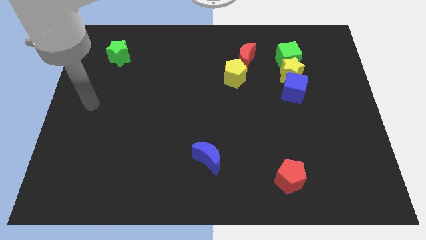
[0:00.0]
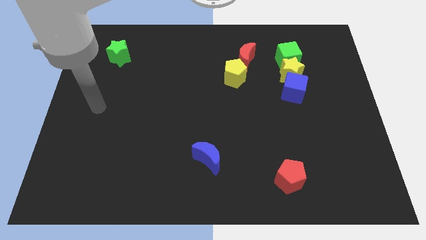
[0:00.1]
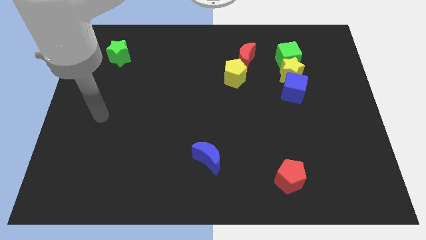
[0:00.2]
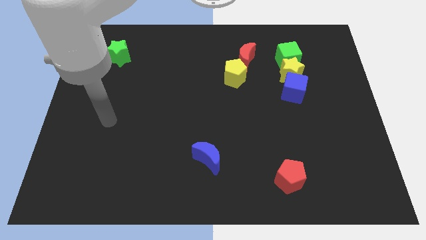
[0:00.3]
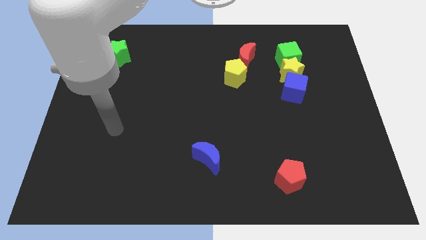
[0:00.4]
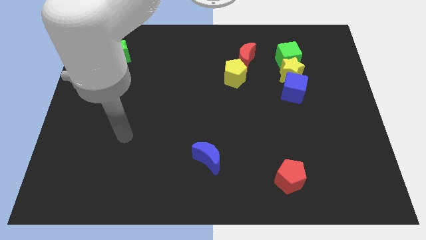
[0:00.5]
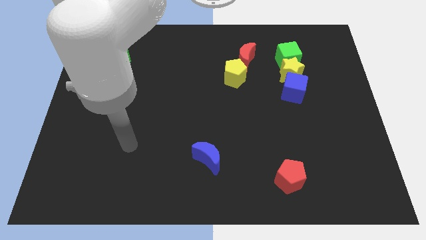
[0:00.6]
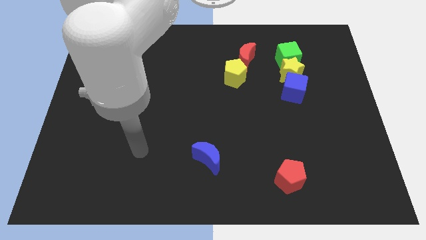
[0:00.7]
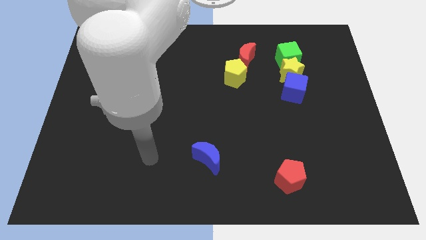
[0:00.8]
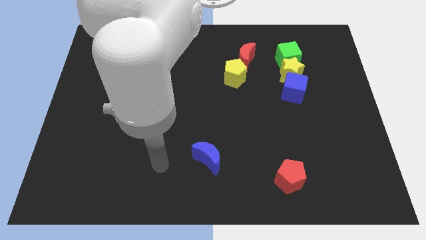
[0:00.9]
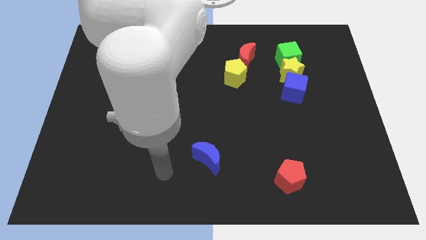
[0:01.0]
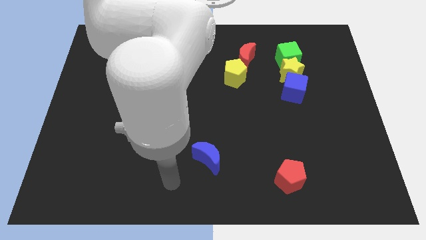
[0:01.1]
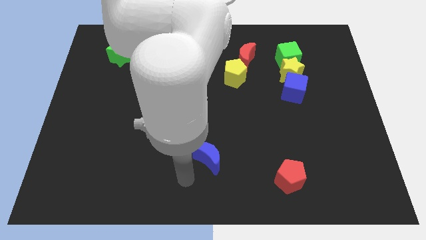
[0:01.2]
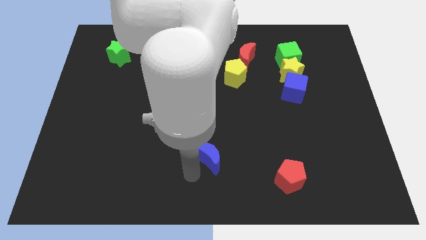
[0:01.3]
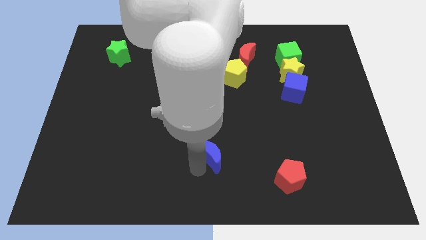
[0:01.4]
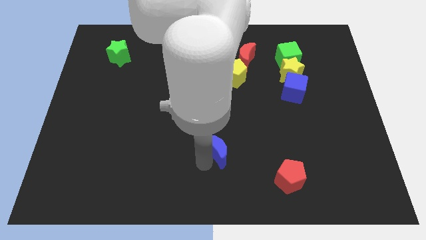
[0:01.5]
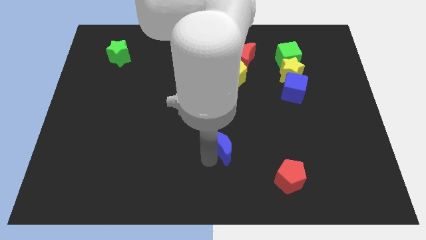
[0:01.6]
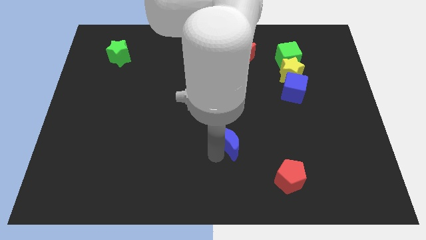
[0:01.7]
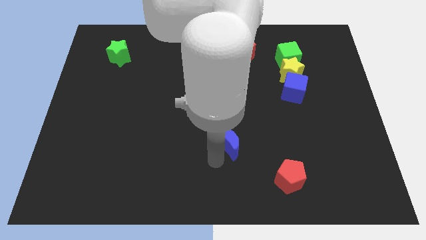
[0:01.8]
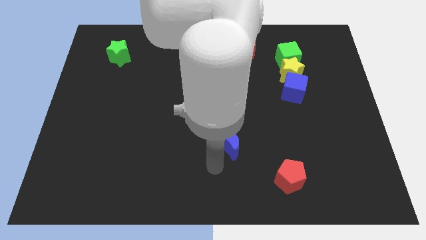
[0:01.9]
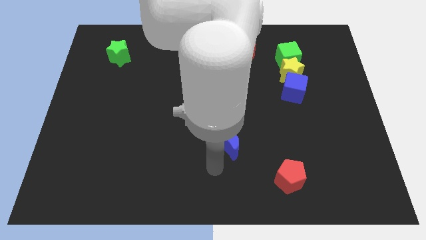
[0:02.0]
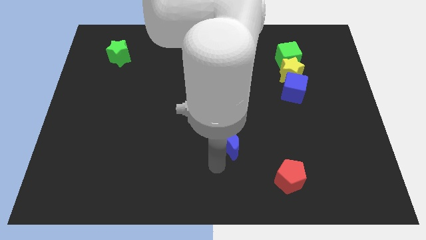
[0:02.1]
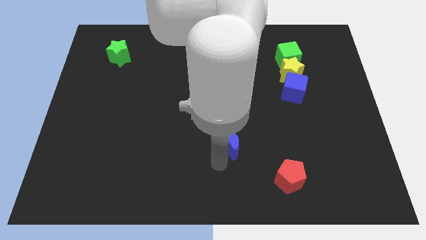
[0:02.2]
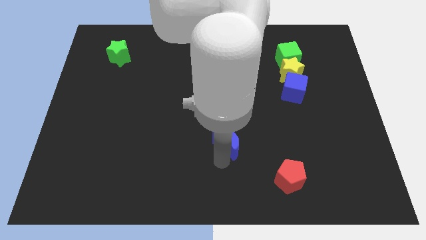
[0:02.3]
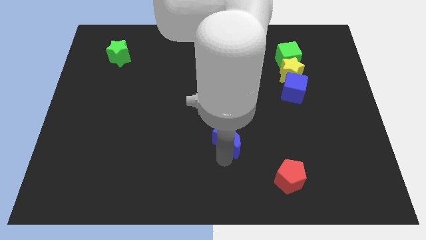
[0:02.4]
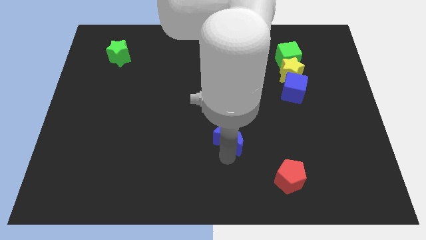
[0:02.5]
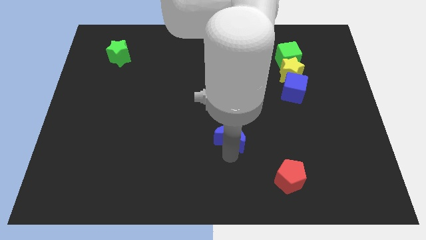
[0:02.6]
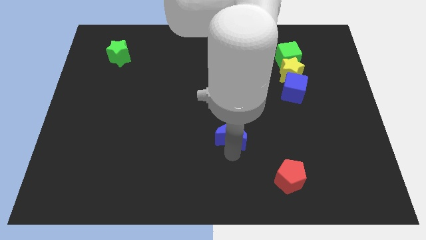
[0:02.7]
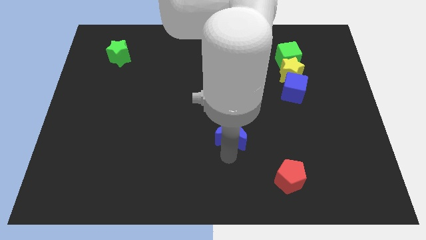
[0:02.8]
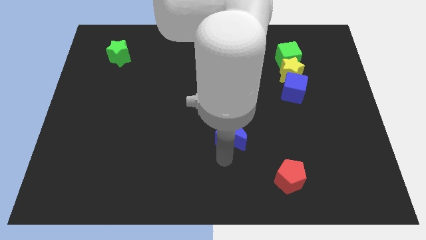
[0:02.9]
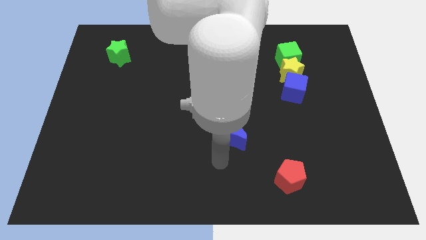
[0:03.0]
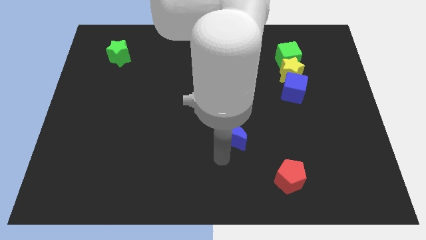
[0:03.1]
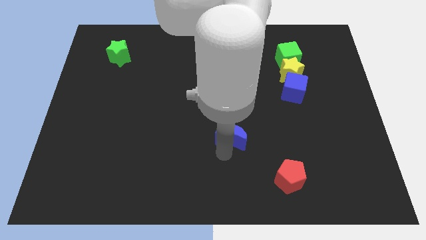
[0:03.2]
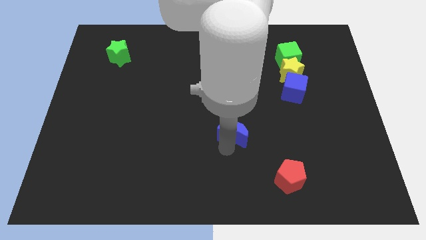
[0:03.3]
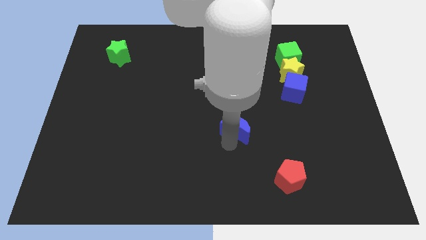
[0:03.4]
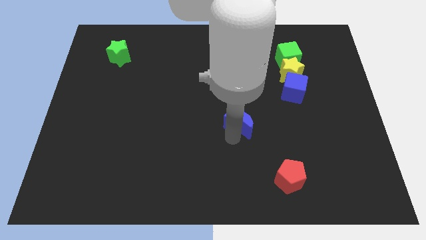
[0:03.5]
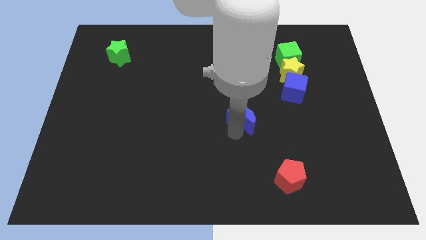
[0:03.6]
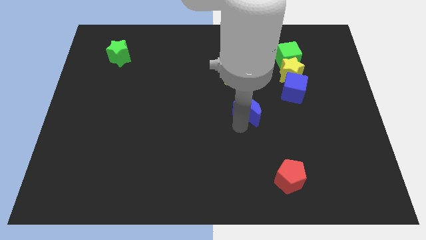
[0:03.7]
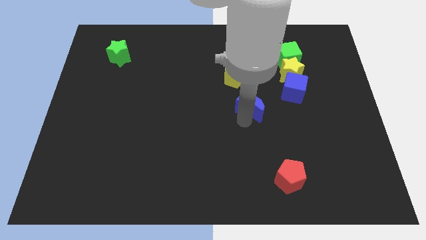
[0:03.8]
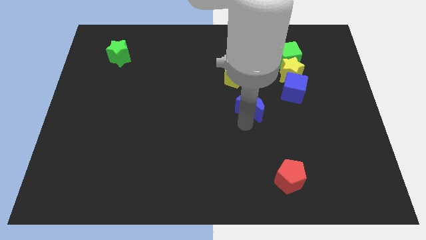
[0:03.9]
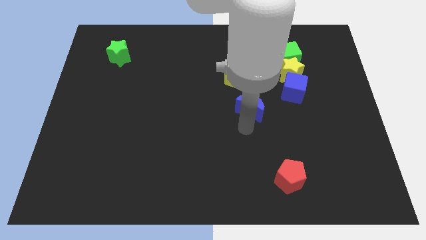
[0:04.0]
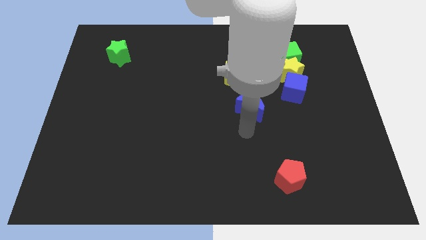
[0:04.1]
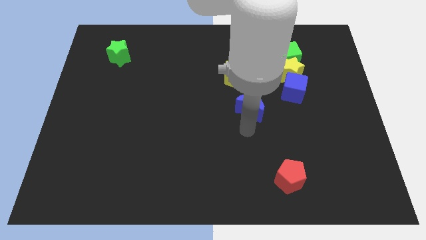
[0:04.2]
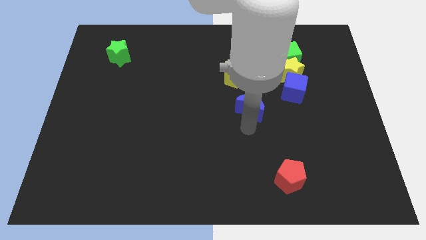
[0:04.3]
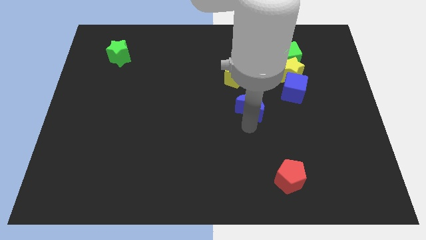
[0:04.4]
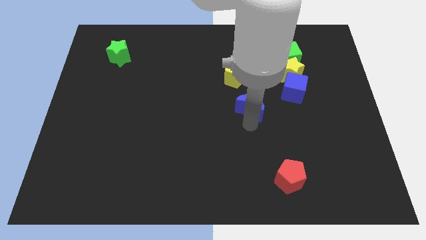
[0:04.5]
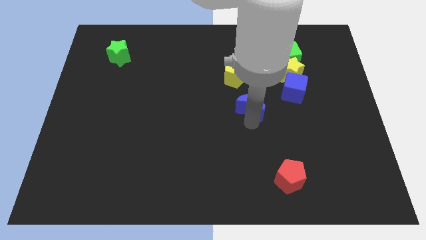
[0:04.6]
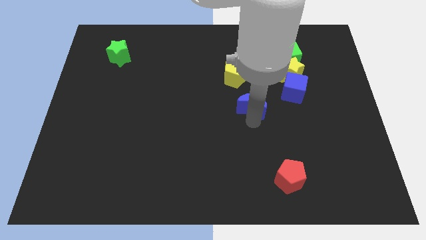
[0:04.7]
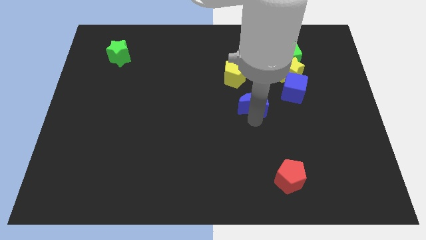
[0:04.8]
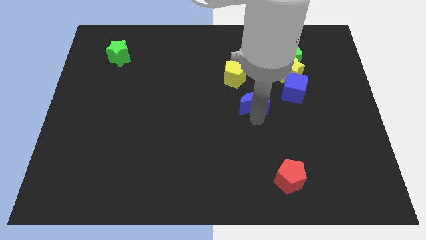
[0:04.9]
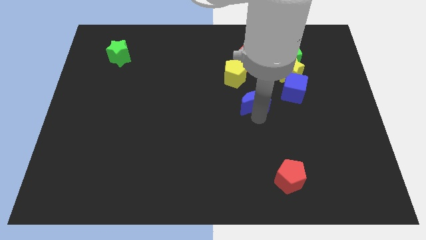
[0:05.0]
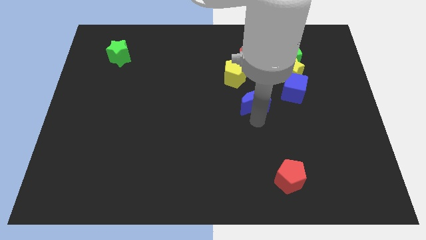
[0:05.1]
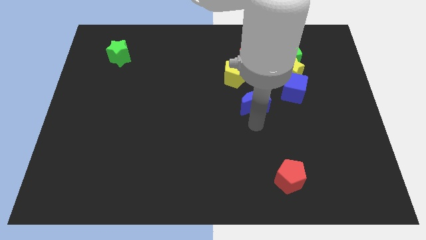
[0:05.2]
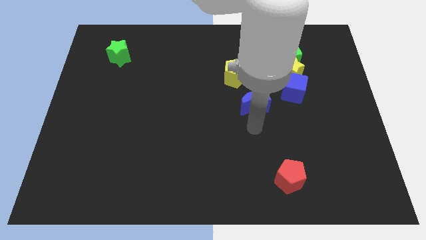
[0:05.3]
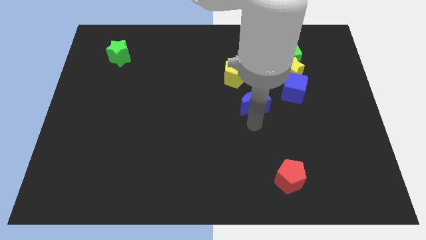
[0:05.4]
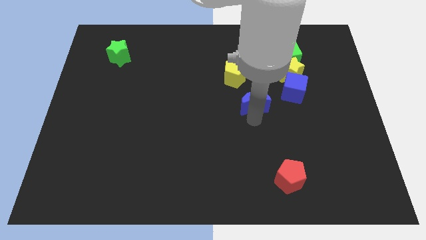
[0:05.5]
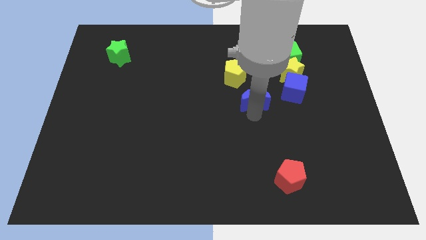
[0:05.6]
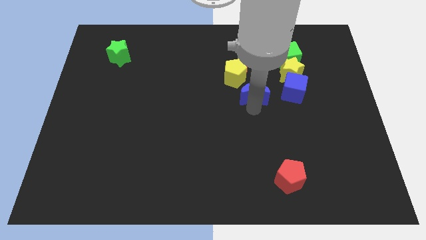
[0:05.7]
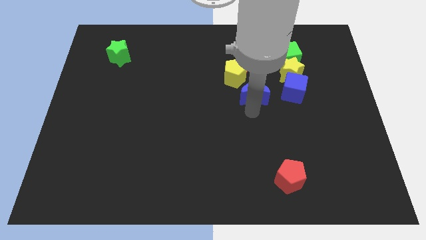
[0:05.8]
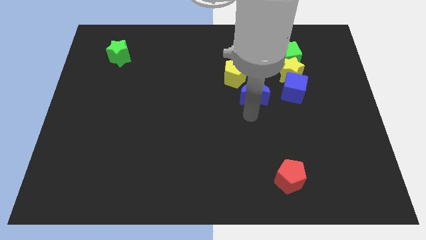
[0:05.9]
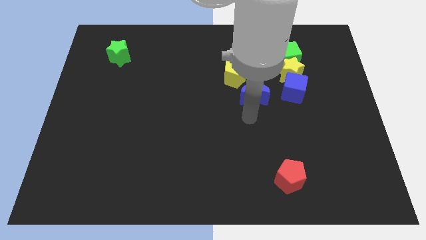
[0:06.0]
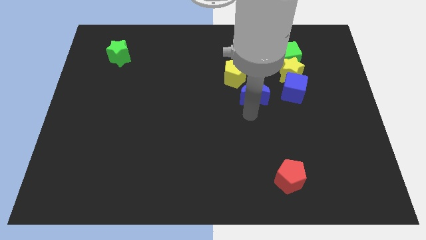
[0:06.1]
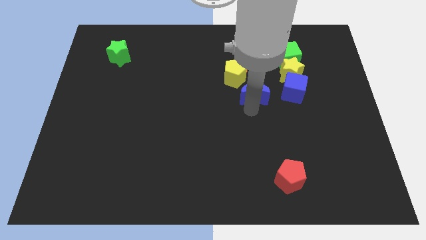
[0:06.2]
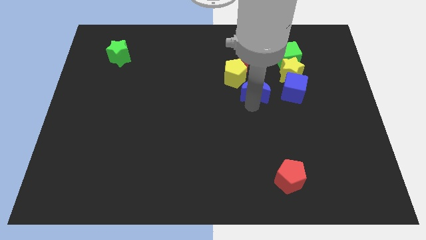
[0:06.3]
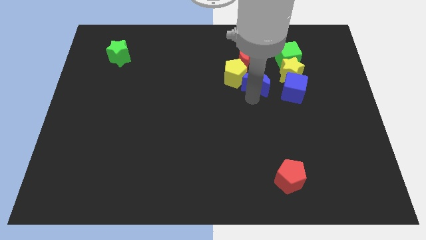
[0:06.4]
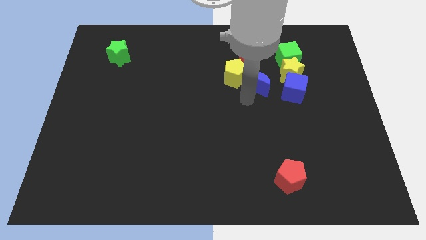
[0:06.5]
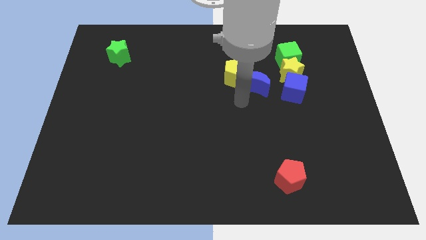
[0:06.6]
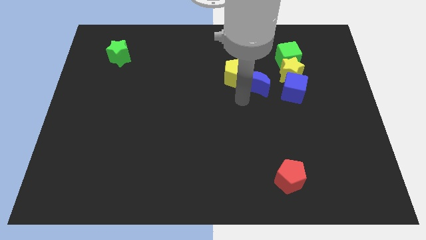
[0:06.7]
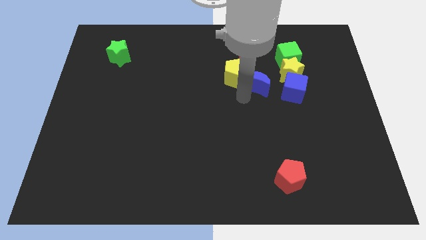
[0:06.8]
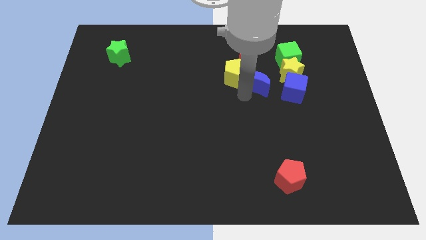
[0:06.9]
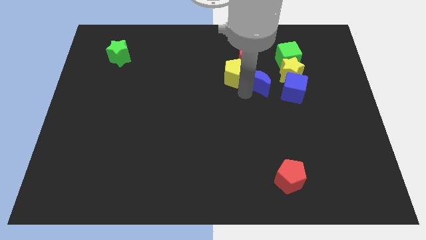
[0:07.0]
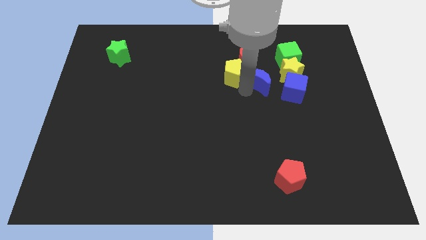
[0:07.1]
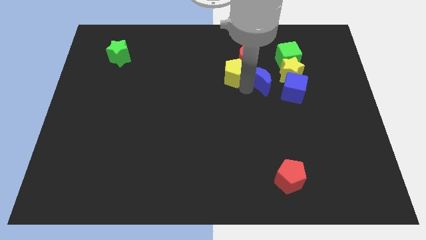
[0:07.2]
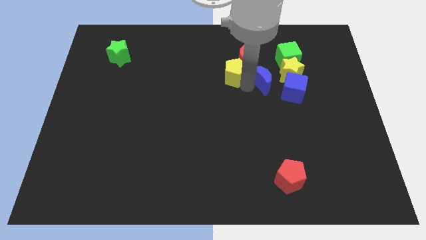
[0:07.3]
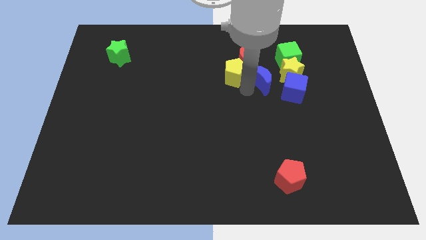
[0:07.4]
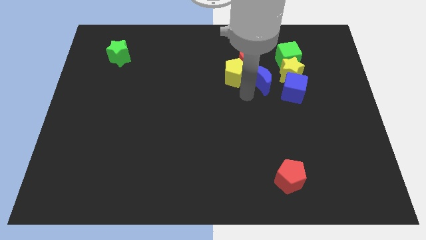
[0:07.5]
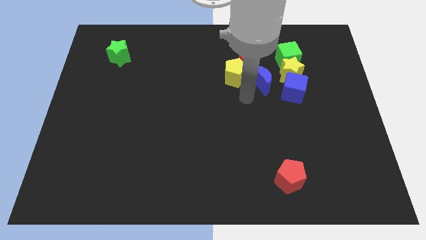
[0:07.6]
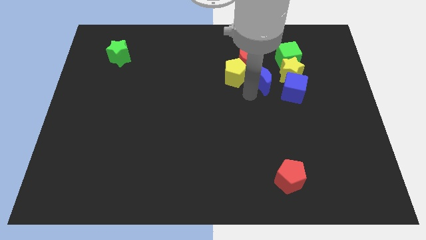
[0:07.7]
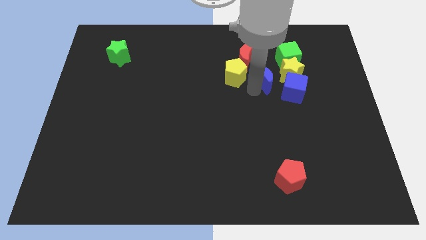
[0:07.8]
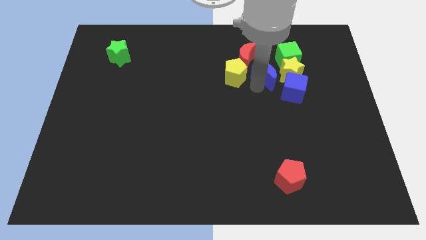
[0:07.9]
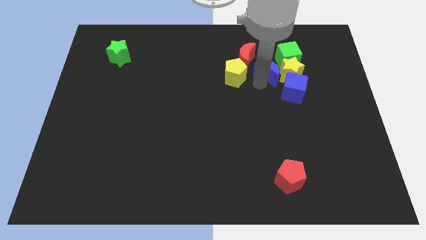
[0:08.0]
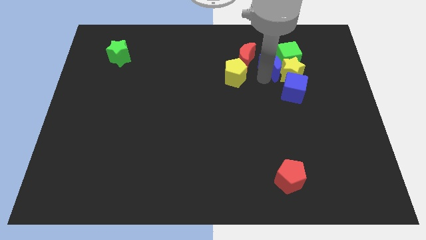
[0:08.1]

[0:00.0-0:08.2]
slide the blue moon next to the green cube
